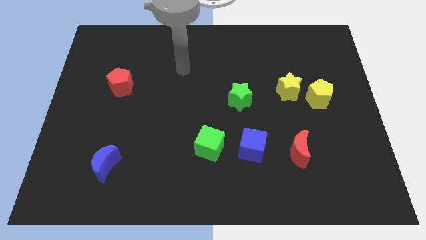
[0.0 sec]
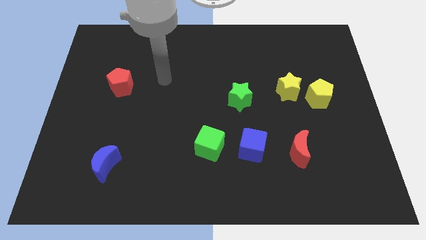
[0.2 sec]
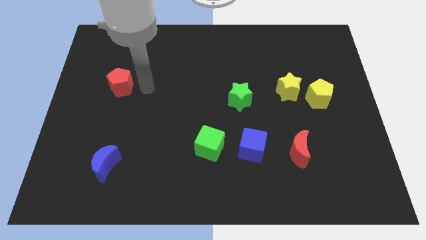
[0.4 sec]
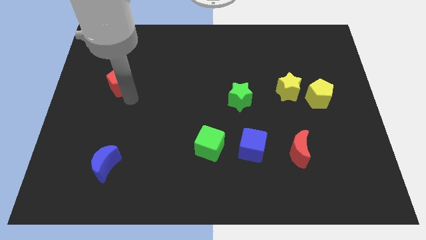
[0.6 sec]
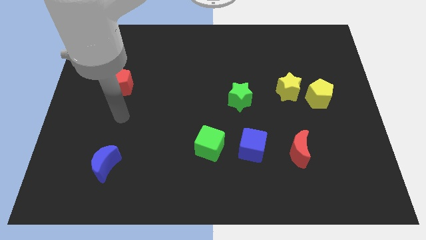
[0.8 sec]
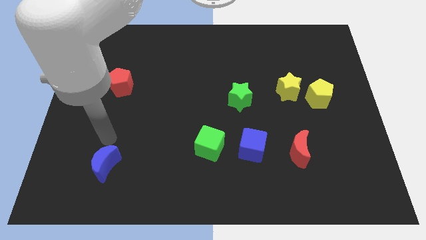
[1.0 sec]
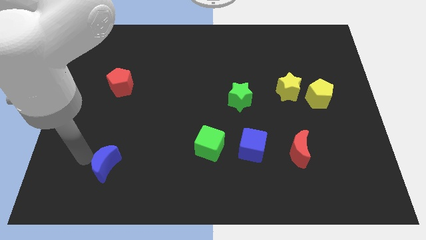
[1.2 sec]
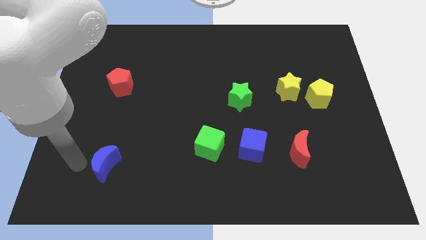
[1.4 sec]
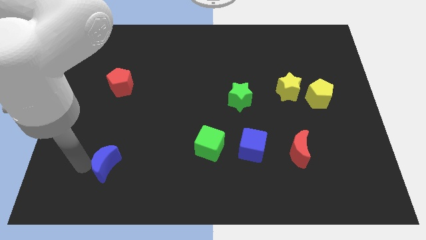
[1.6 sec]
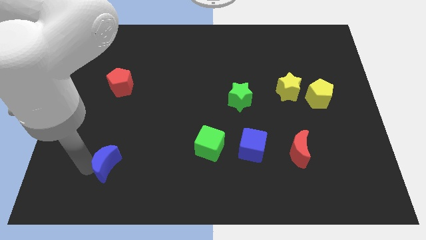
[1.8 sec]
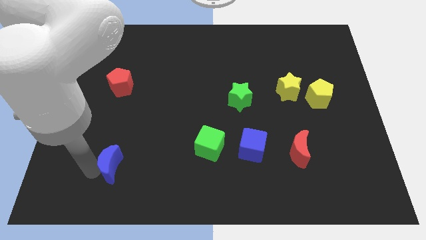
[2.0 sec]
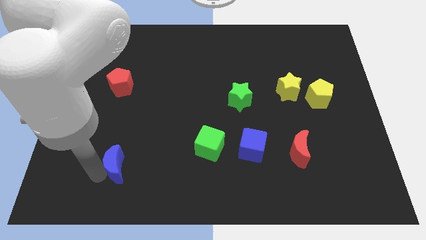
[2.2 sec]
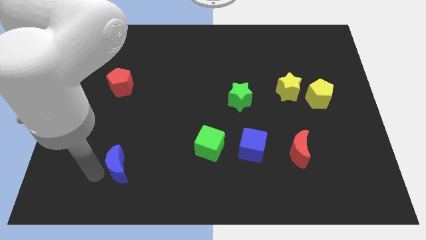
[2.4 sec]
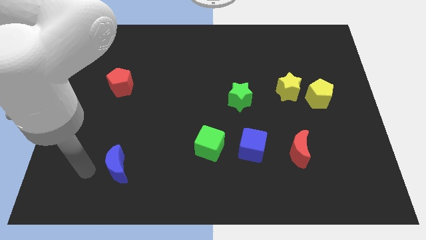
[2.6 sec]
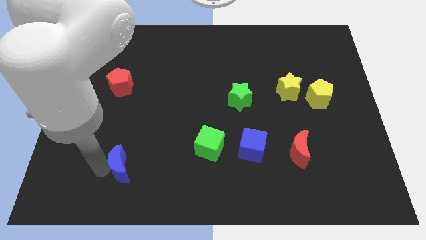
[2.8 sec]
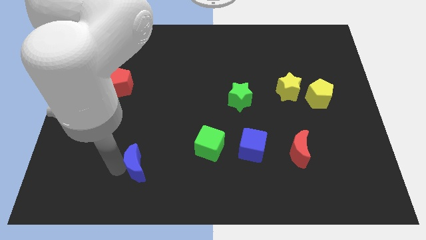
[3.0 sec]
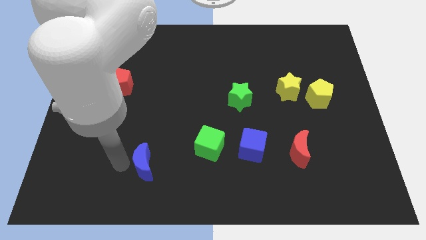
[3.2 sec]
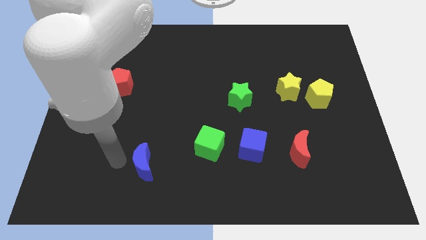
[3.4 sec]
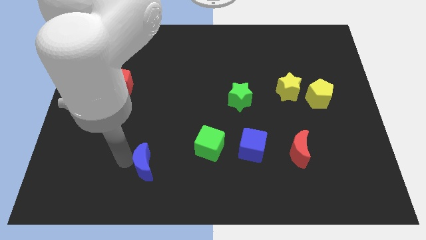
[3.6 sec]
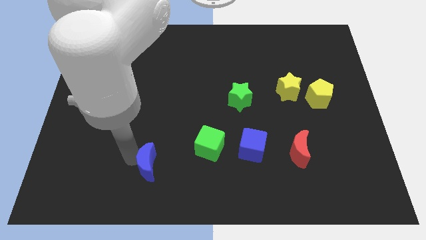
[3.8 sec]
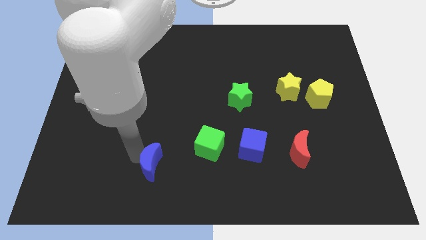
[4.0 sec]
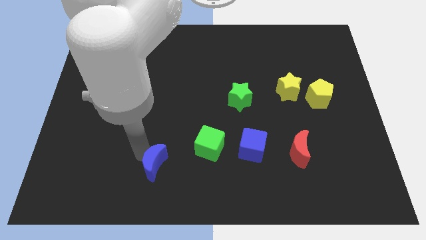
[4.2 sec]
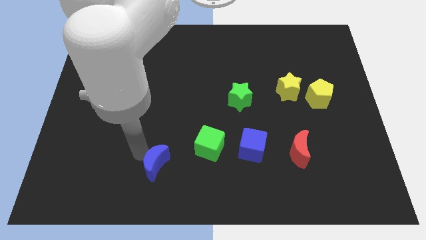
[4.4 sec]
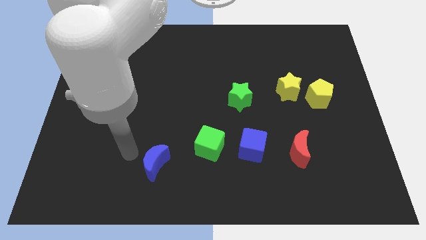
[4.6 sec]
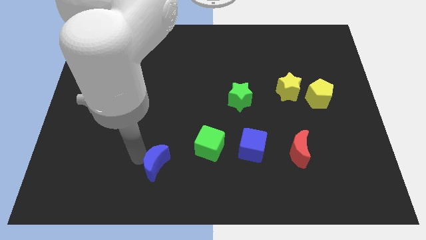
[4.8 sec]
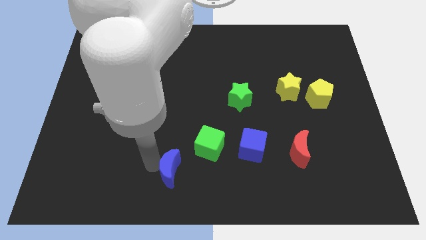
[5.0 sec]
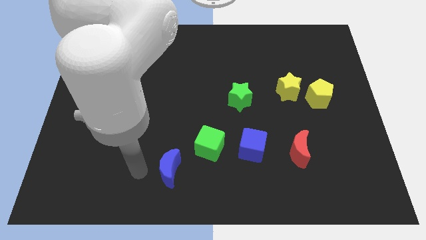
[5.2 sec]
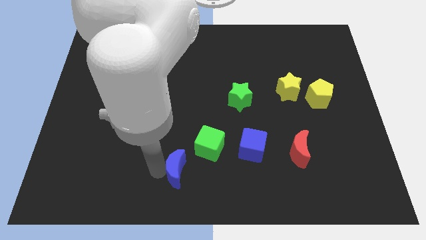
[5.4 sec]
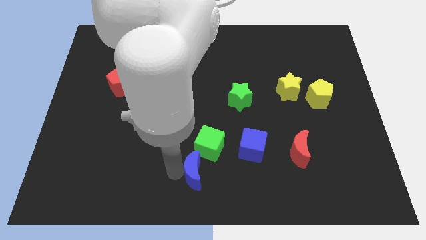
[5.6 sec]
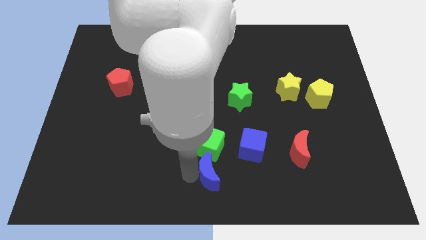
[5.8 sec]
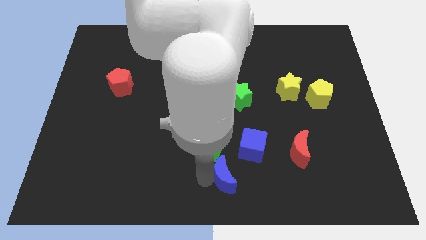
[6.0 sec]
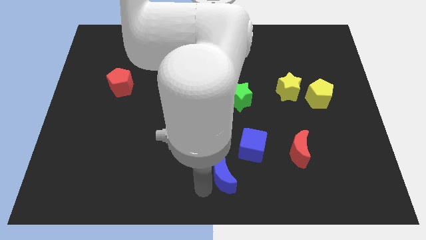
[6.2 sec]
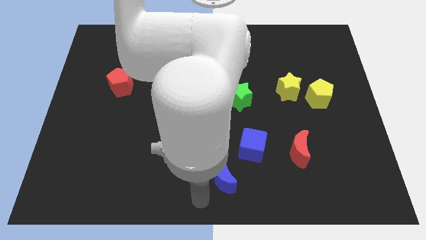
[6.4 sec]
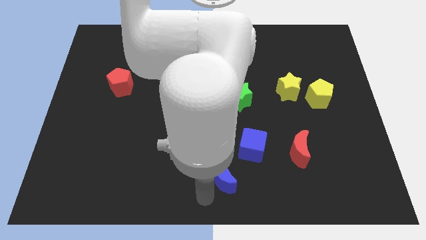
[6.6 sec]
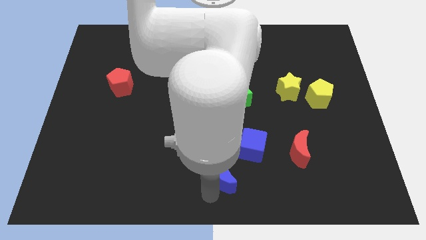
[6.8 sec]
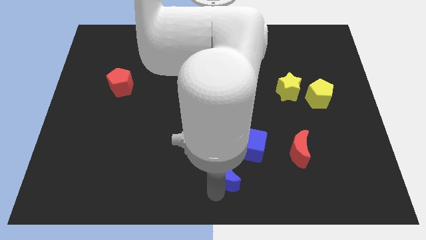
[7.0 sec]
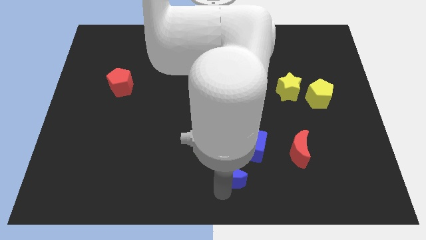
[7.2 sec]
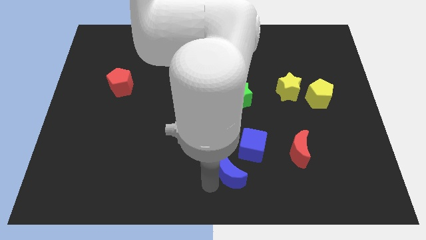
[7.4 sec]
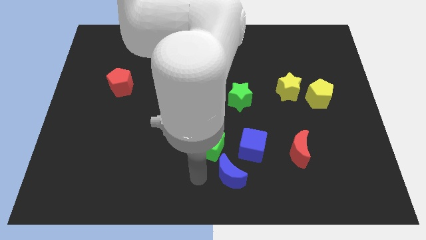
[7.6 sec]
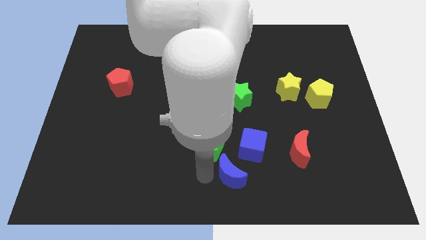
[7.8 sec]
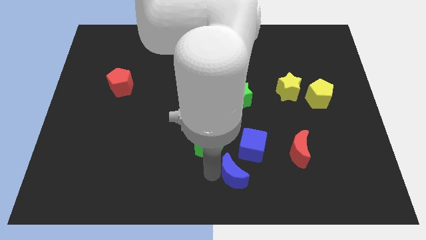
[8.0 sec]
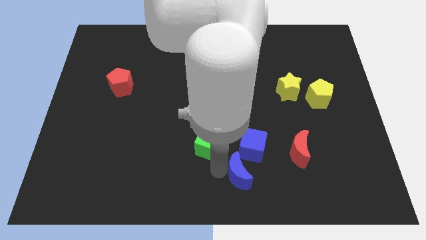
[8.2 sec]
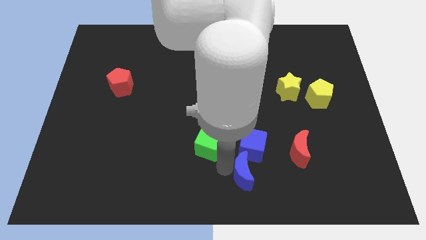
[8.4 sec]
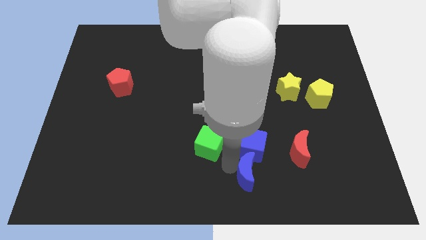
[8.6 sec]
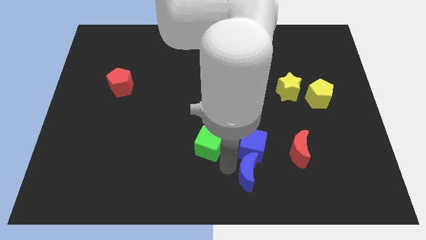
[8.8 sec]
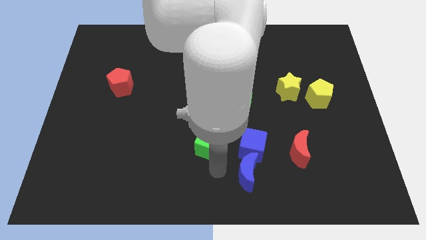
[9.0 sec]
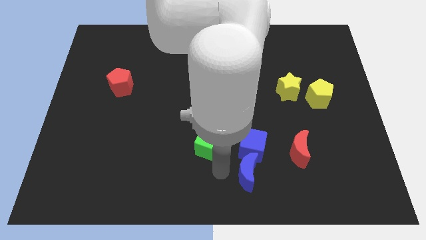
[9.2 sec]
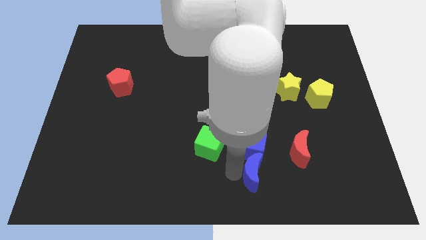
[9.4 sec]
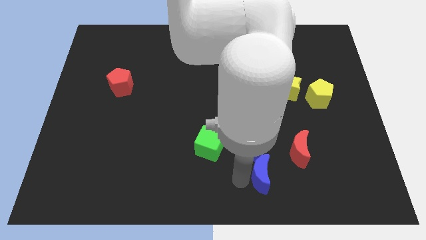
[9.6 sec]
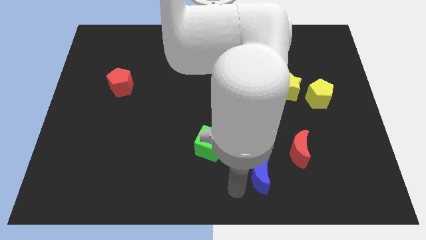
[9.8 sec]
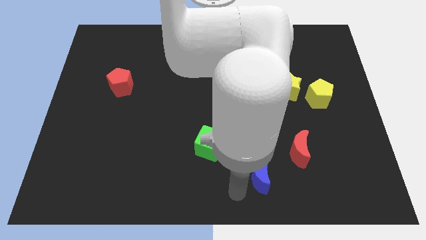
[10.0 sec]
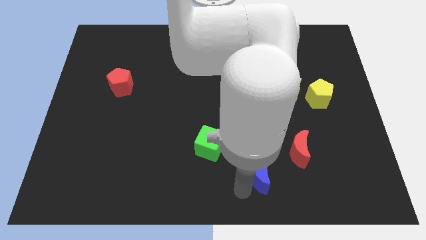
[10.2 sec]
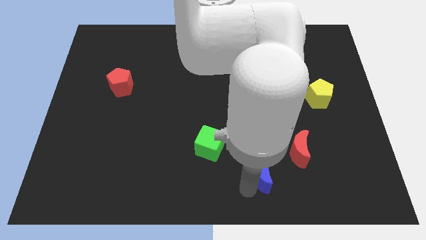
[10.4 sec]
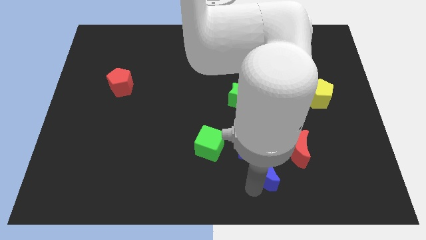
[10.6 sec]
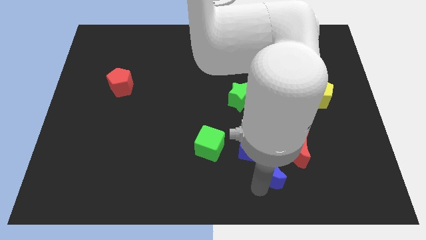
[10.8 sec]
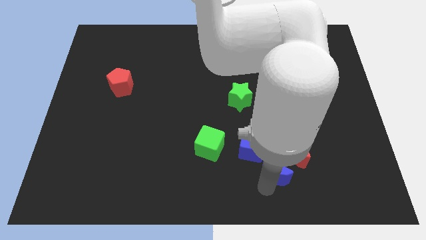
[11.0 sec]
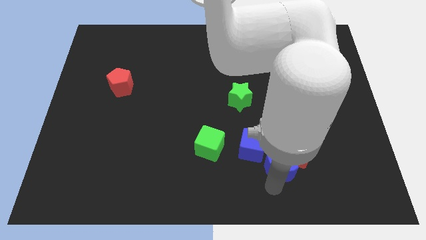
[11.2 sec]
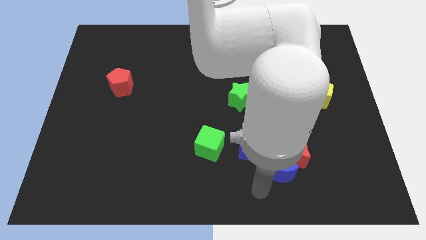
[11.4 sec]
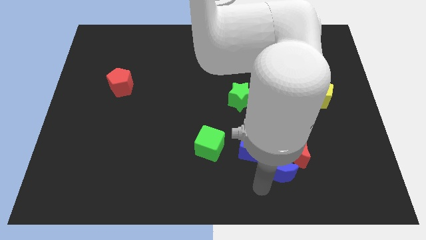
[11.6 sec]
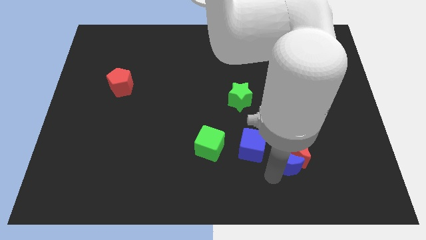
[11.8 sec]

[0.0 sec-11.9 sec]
push the blue moon close to the red moon

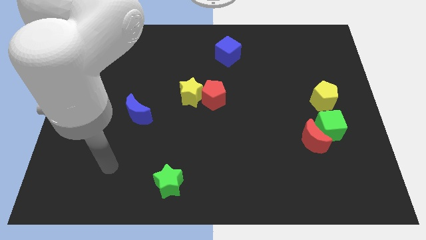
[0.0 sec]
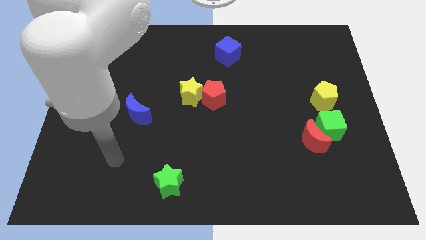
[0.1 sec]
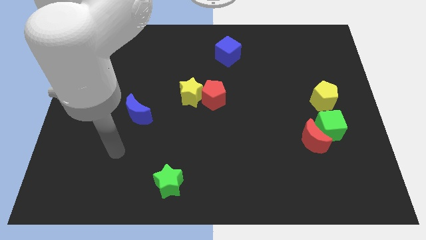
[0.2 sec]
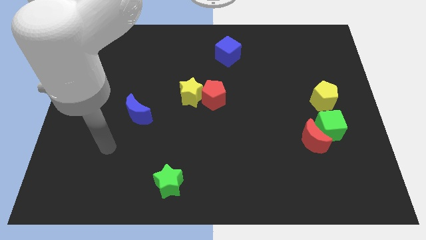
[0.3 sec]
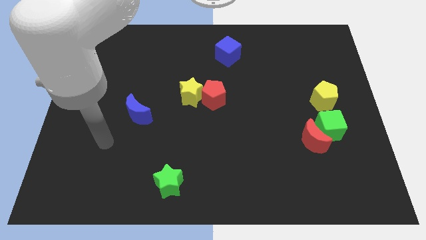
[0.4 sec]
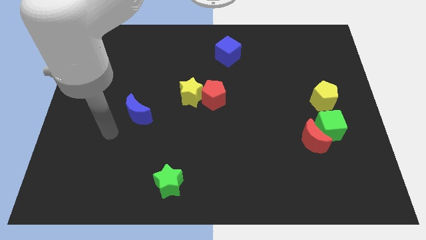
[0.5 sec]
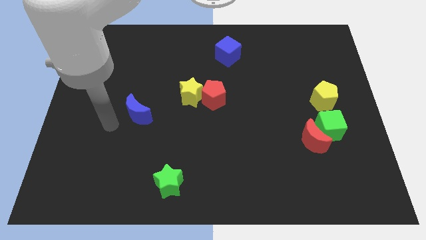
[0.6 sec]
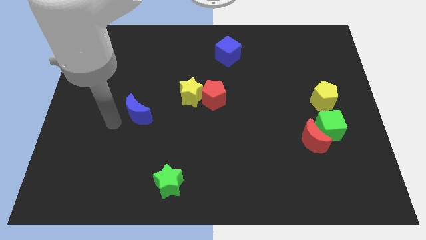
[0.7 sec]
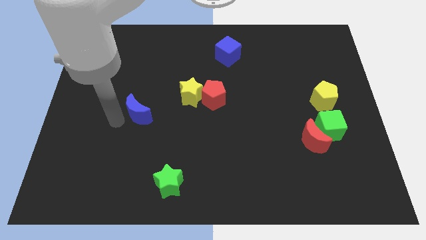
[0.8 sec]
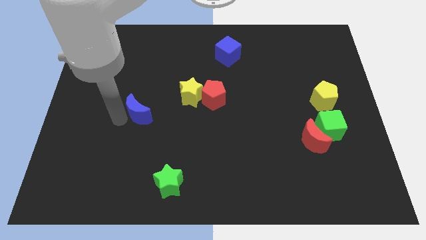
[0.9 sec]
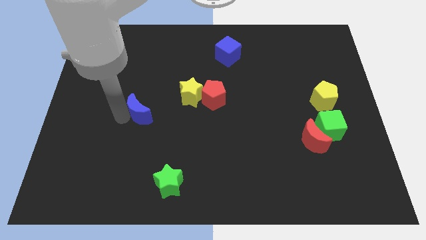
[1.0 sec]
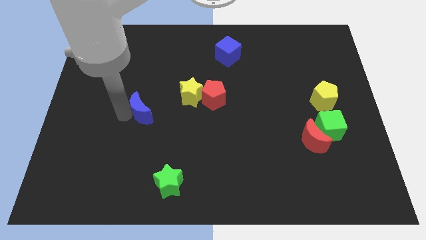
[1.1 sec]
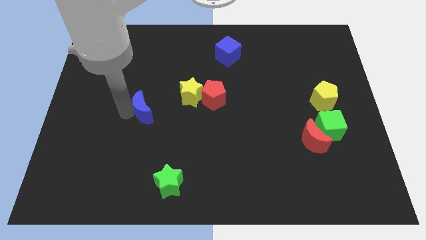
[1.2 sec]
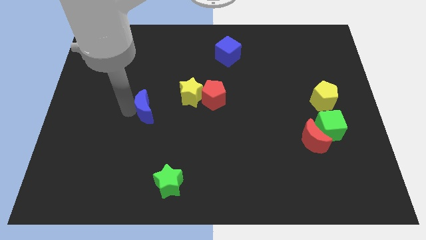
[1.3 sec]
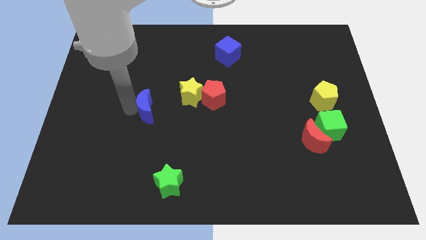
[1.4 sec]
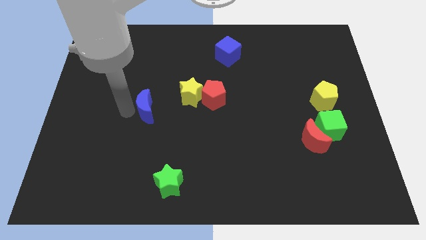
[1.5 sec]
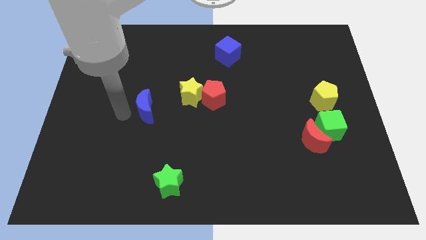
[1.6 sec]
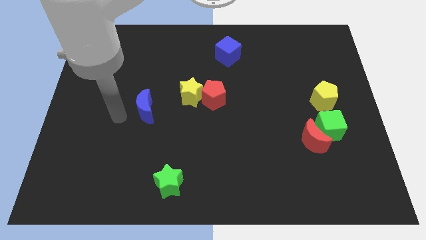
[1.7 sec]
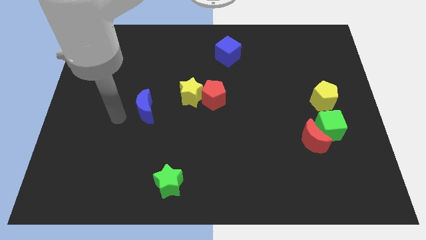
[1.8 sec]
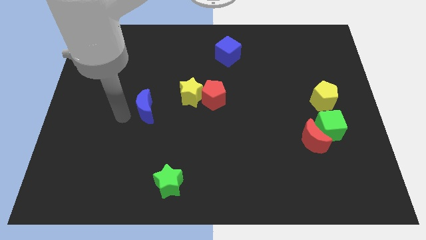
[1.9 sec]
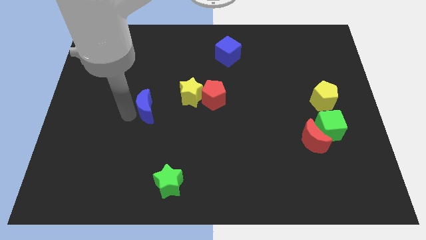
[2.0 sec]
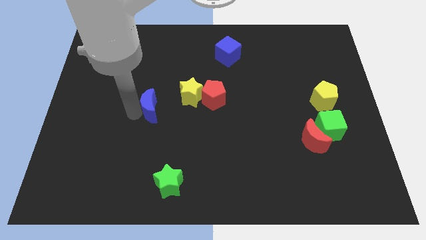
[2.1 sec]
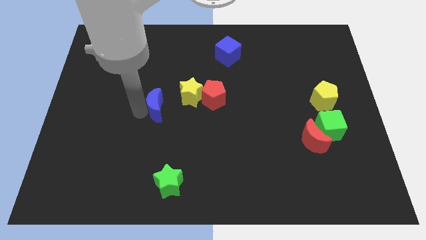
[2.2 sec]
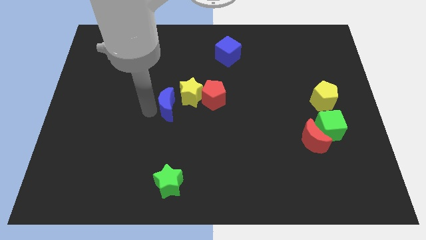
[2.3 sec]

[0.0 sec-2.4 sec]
push the blue moon towards the yellow star

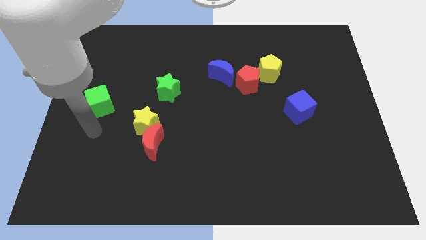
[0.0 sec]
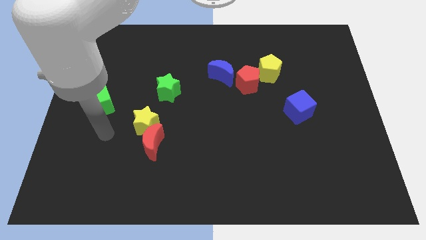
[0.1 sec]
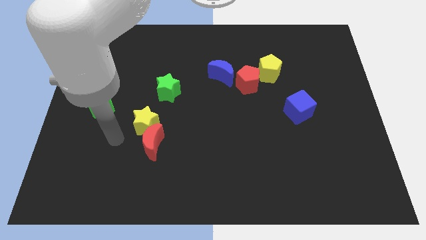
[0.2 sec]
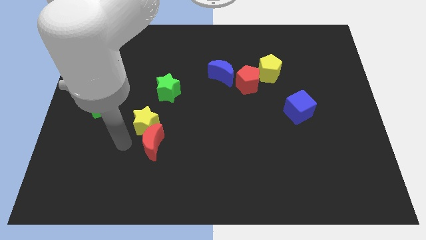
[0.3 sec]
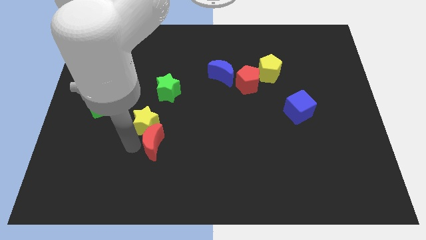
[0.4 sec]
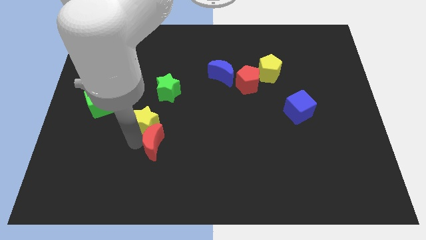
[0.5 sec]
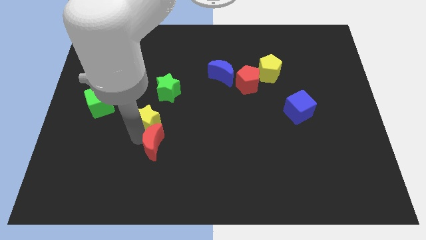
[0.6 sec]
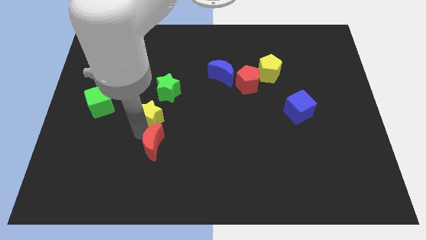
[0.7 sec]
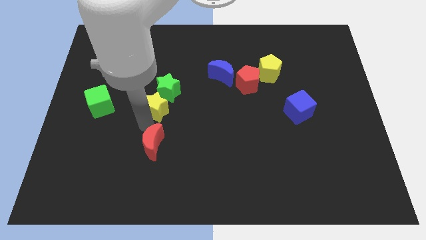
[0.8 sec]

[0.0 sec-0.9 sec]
put the yellow star towards the green star
